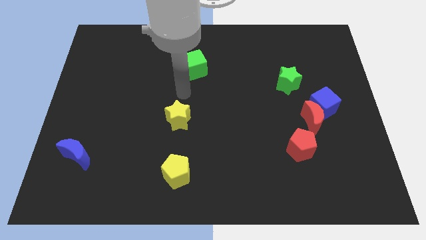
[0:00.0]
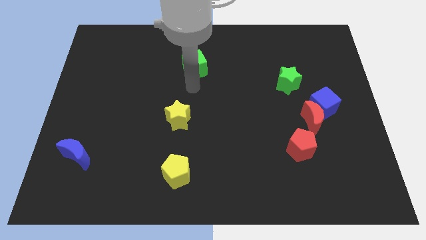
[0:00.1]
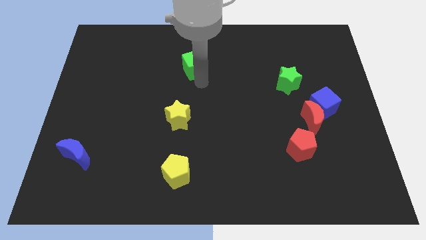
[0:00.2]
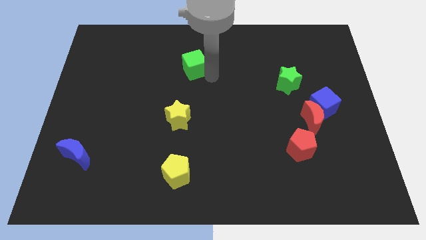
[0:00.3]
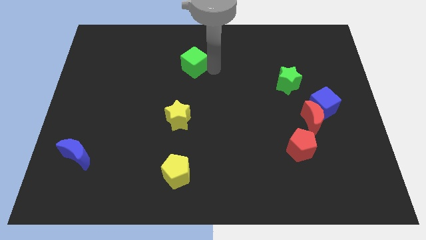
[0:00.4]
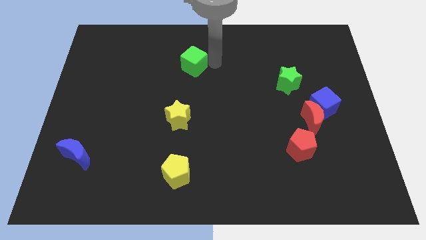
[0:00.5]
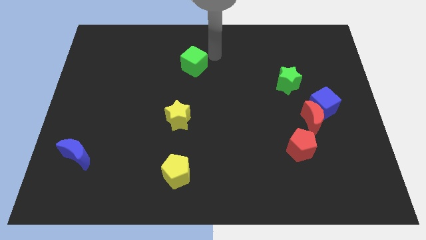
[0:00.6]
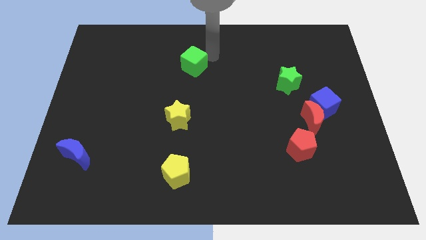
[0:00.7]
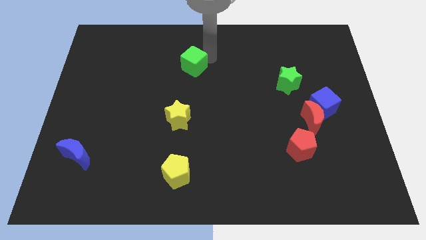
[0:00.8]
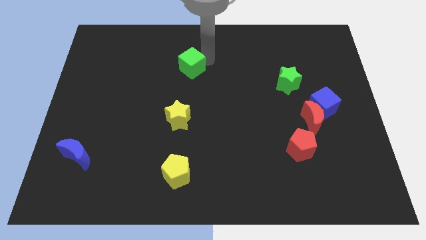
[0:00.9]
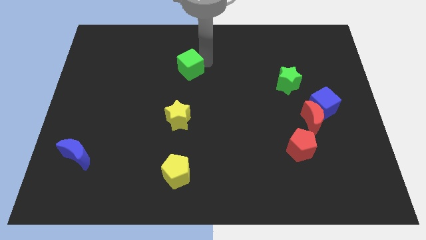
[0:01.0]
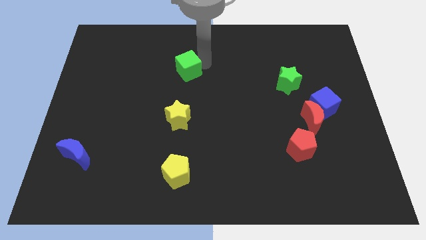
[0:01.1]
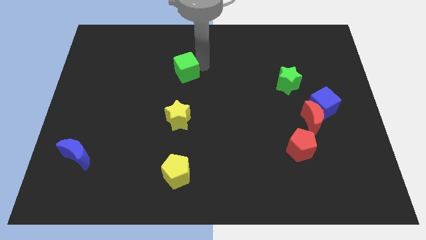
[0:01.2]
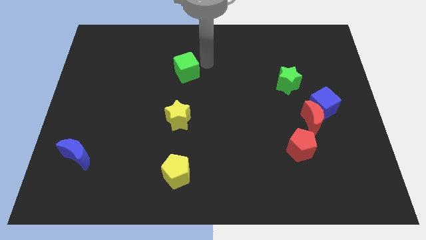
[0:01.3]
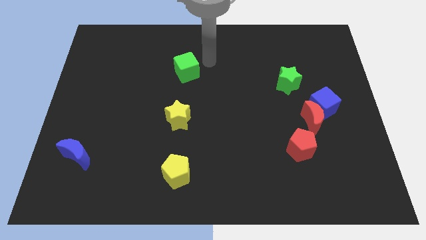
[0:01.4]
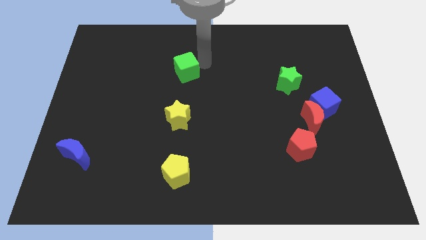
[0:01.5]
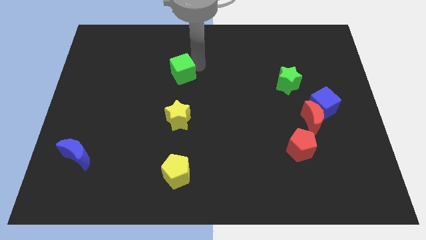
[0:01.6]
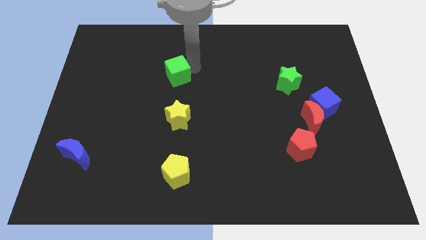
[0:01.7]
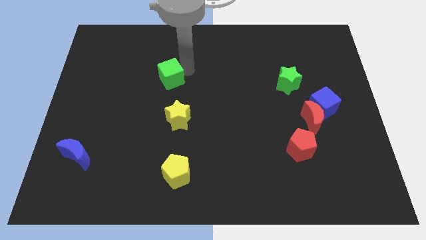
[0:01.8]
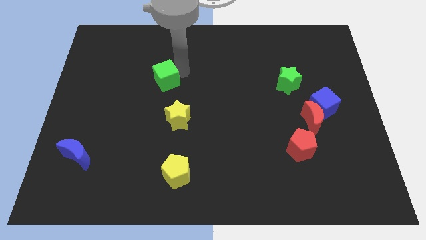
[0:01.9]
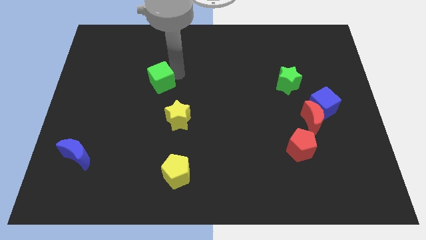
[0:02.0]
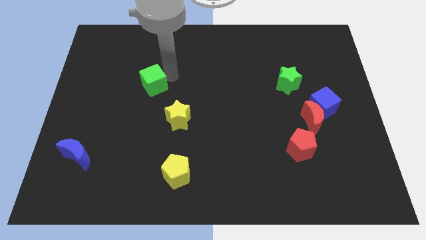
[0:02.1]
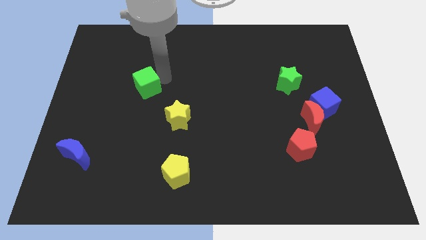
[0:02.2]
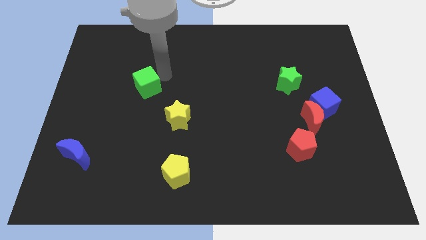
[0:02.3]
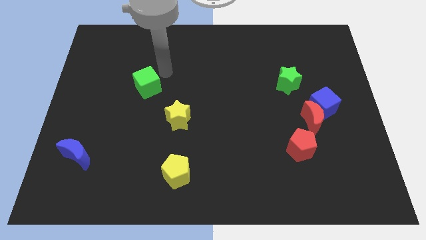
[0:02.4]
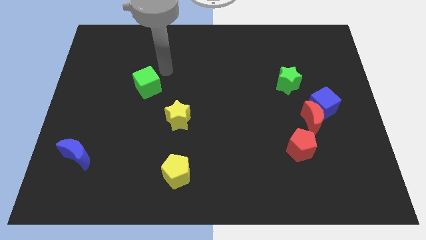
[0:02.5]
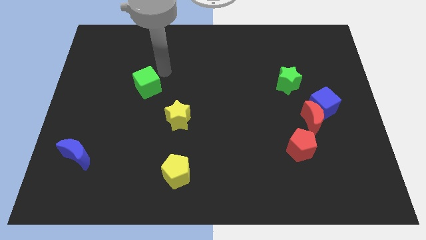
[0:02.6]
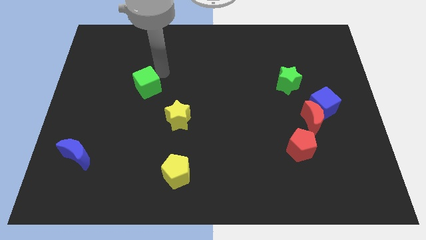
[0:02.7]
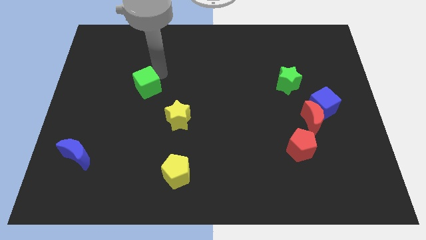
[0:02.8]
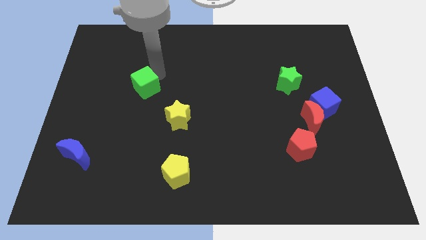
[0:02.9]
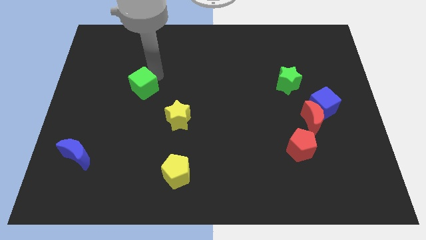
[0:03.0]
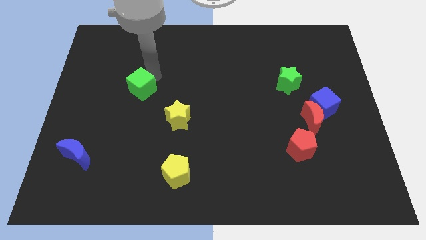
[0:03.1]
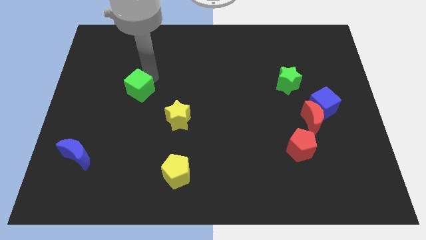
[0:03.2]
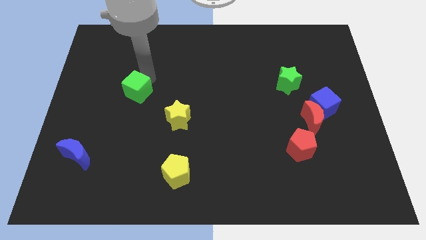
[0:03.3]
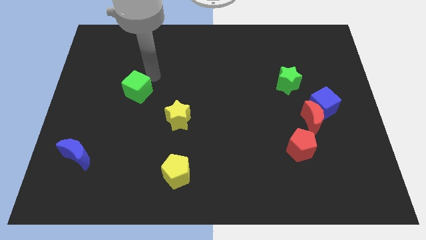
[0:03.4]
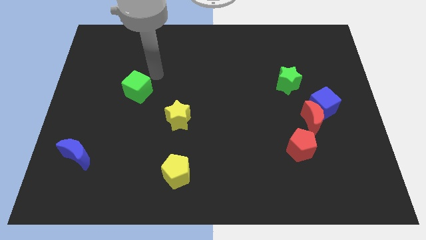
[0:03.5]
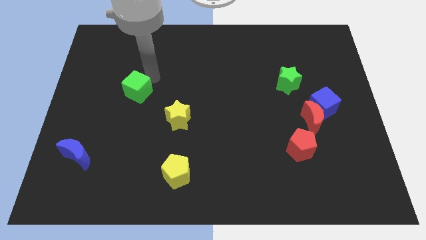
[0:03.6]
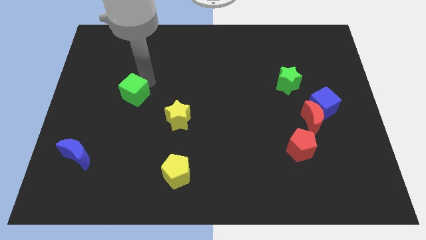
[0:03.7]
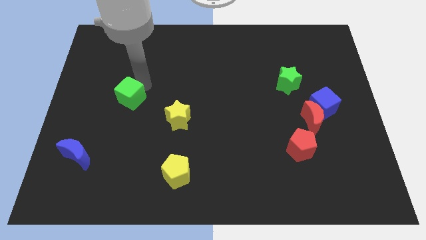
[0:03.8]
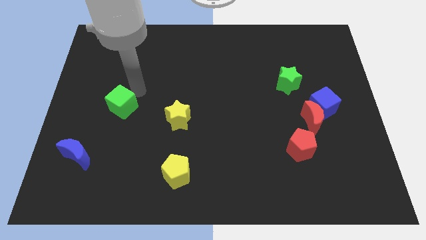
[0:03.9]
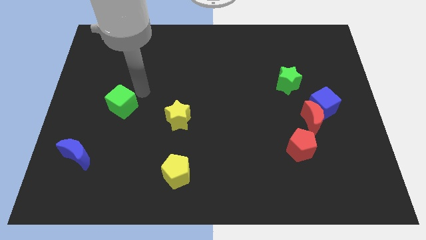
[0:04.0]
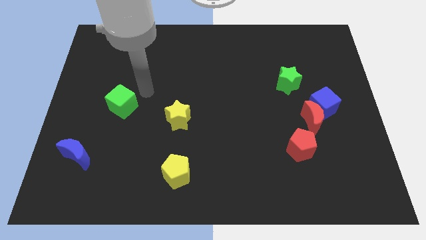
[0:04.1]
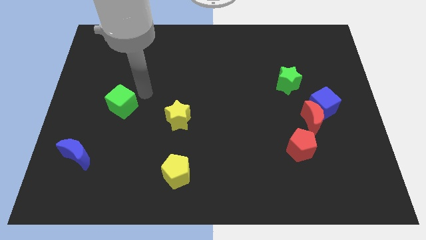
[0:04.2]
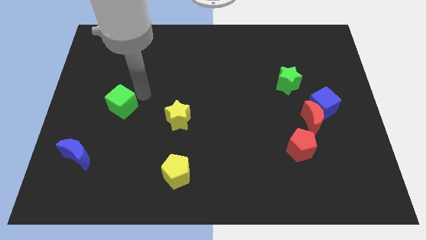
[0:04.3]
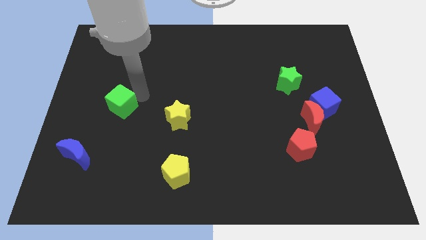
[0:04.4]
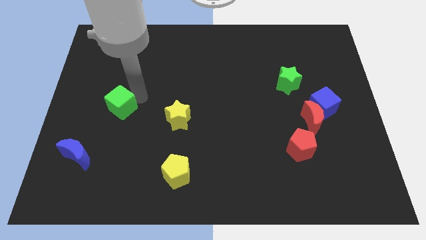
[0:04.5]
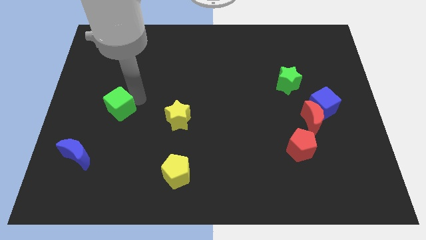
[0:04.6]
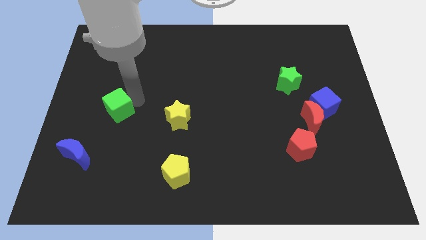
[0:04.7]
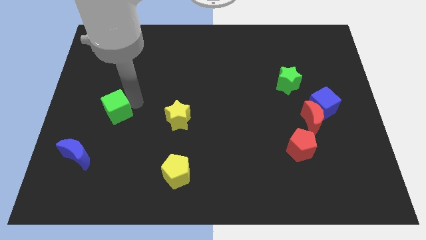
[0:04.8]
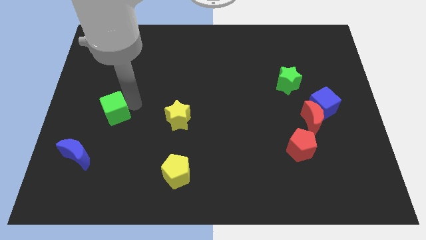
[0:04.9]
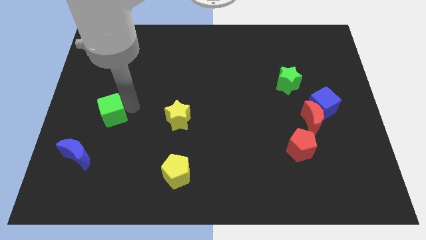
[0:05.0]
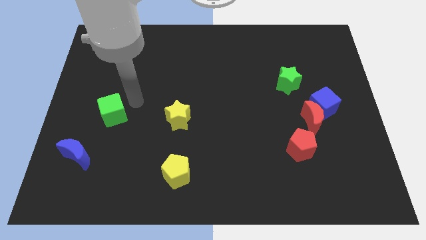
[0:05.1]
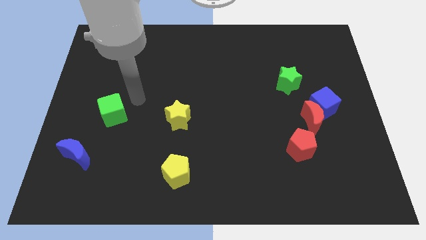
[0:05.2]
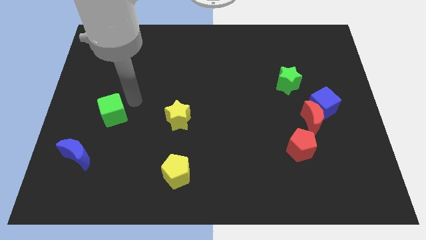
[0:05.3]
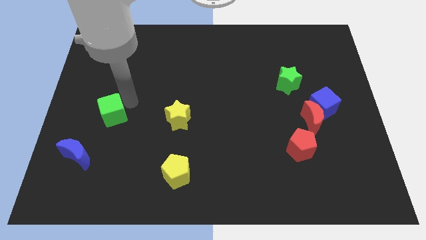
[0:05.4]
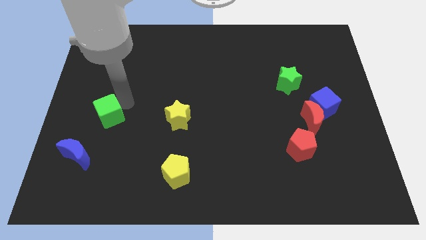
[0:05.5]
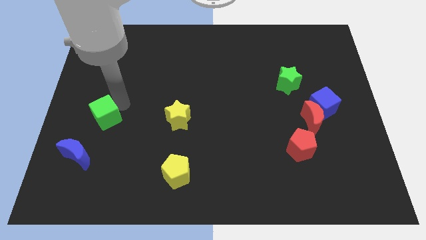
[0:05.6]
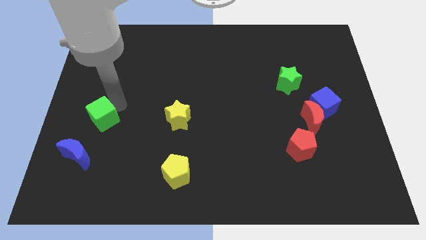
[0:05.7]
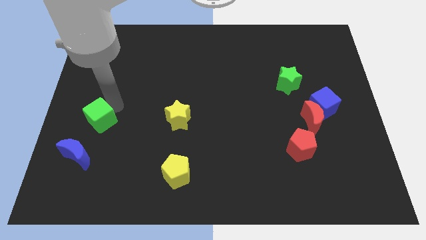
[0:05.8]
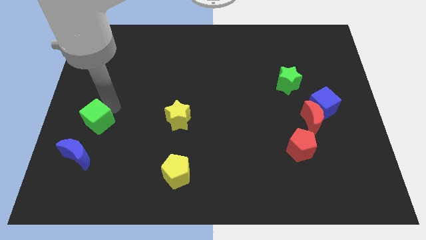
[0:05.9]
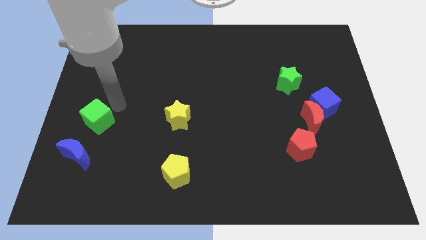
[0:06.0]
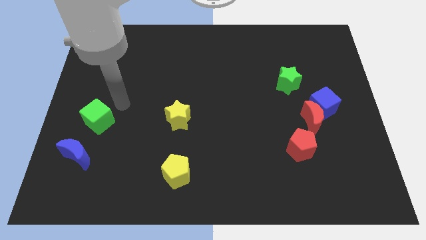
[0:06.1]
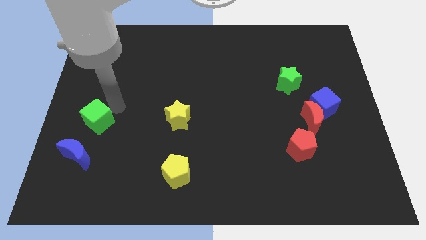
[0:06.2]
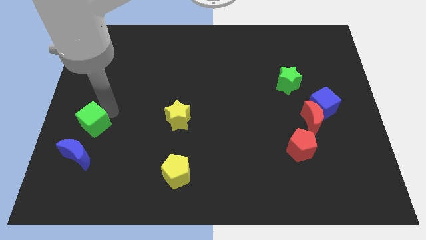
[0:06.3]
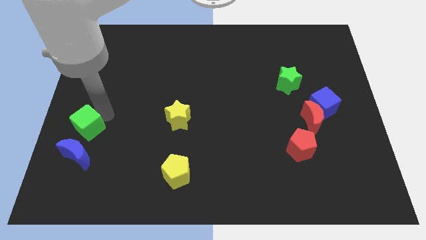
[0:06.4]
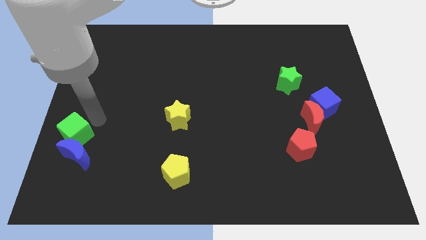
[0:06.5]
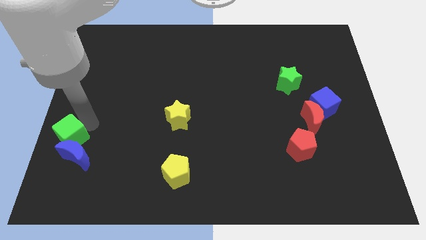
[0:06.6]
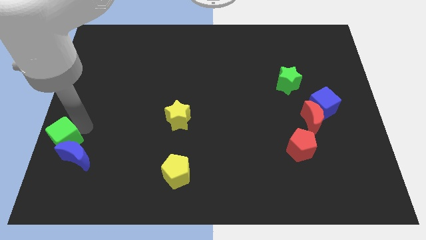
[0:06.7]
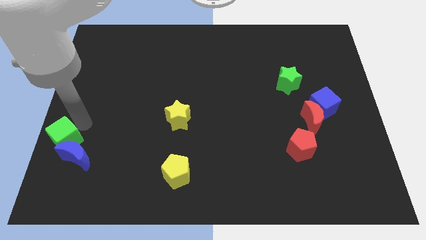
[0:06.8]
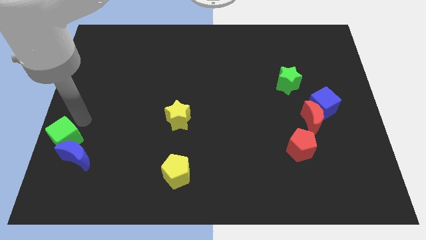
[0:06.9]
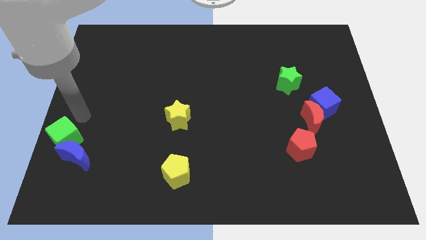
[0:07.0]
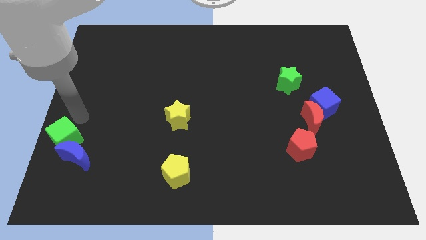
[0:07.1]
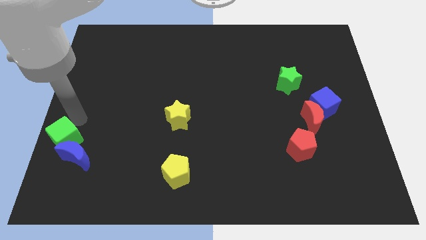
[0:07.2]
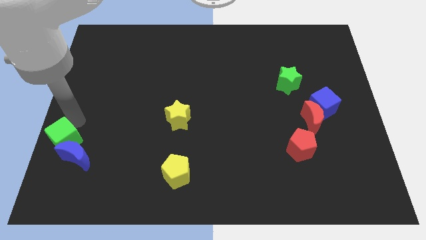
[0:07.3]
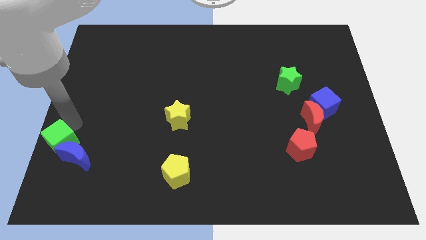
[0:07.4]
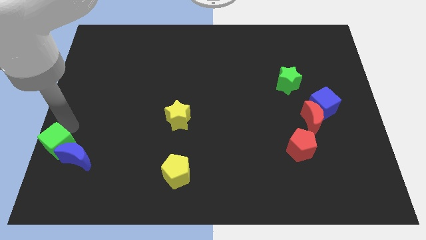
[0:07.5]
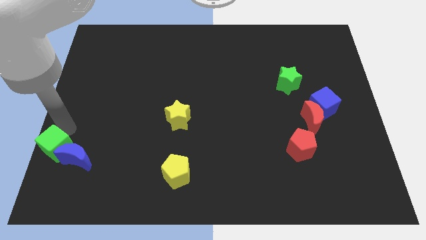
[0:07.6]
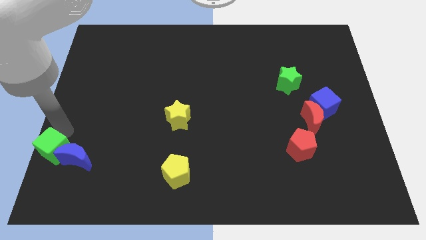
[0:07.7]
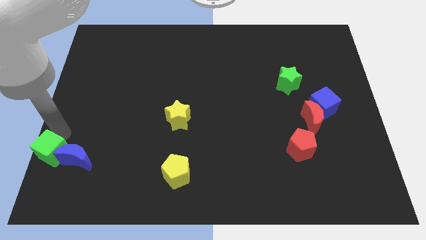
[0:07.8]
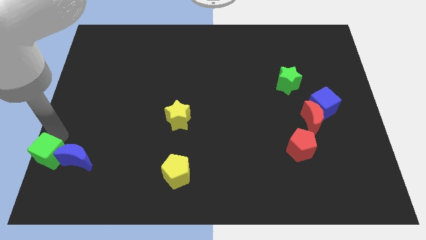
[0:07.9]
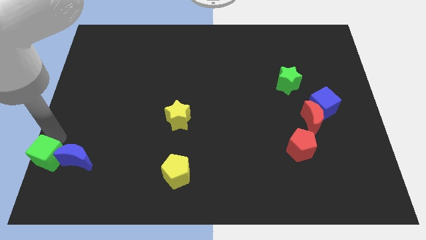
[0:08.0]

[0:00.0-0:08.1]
put the green cube to the lower left corner
